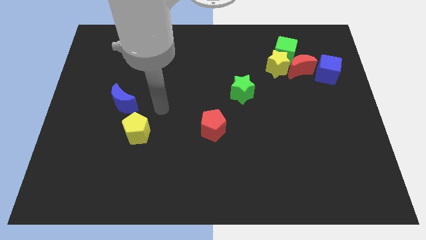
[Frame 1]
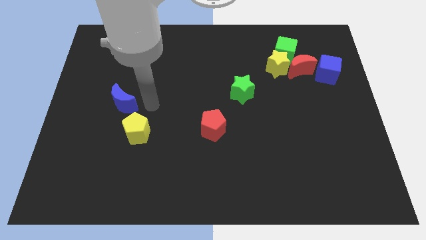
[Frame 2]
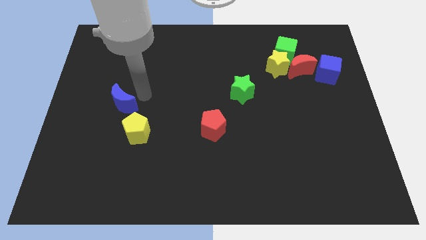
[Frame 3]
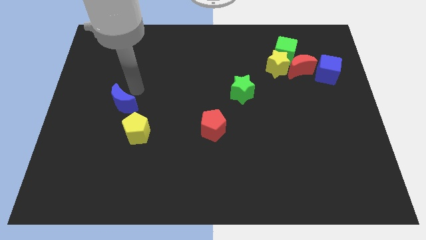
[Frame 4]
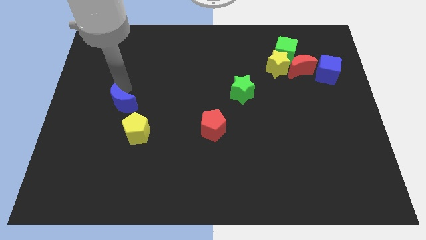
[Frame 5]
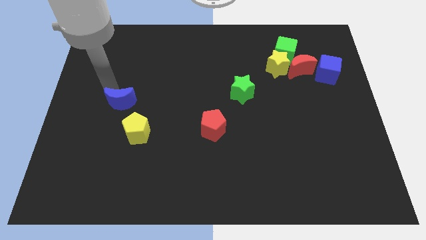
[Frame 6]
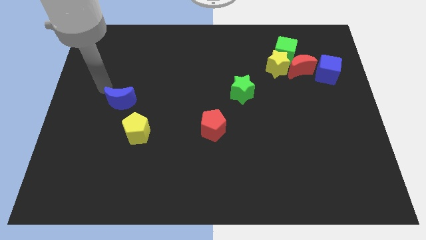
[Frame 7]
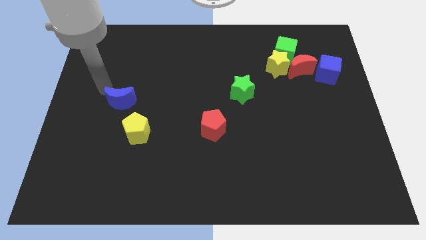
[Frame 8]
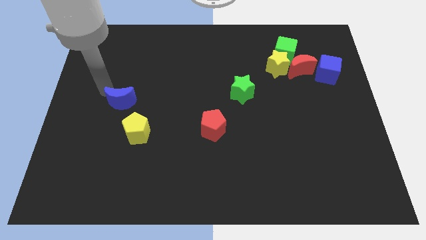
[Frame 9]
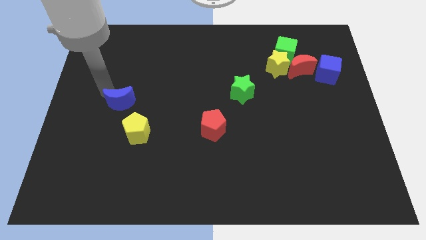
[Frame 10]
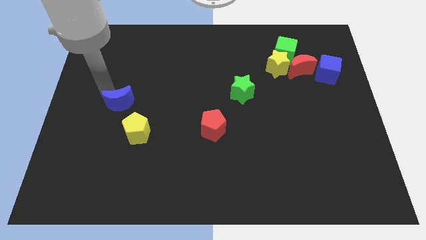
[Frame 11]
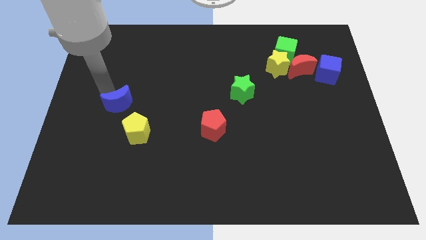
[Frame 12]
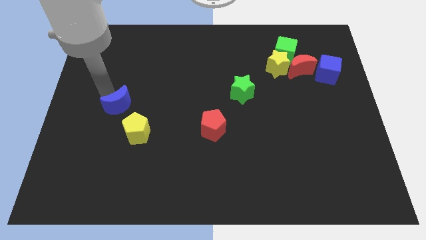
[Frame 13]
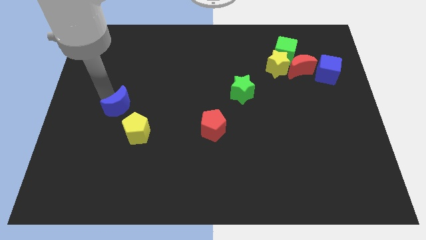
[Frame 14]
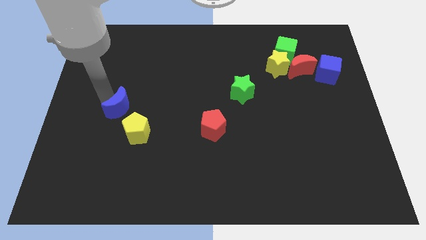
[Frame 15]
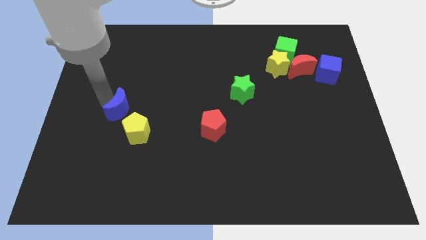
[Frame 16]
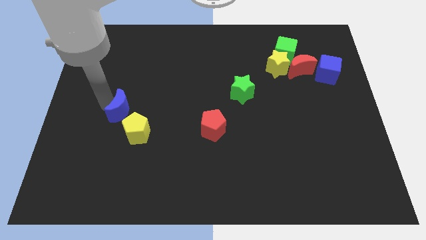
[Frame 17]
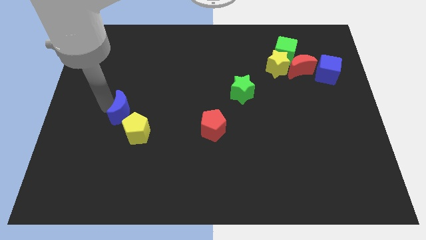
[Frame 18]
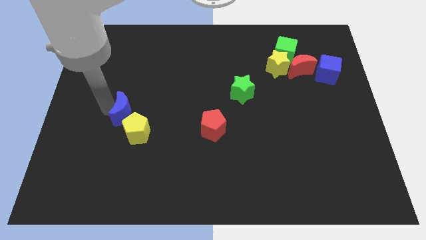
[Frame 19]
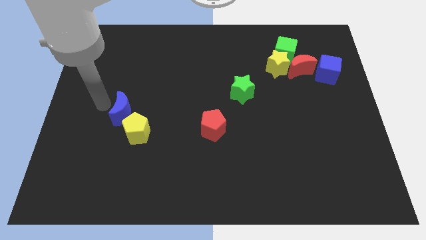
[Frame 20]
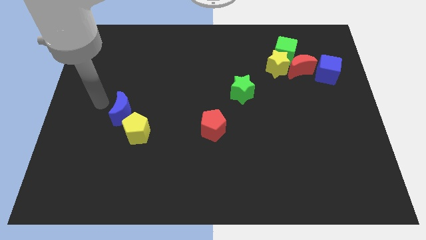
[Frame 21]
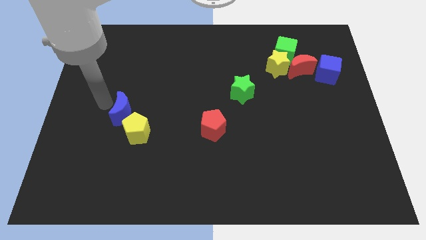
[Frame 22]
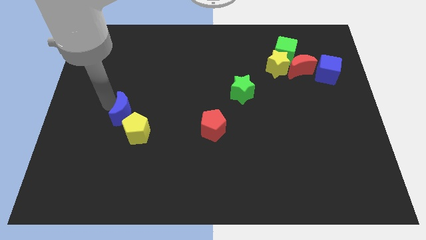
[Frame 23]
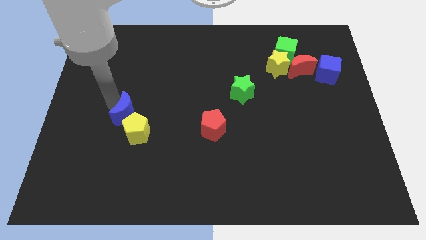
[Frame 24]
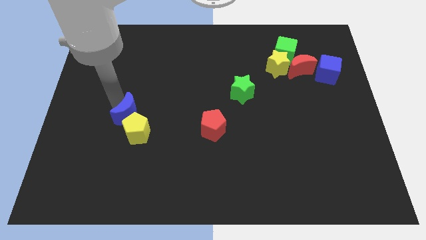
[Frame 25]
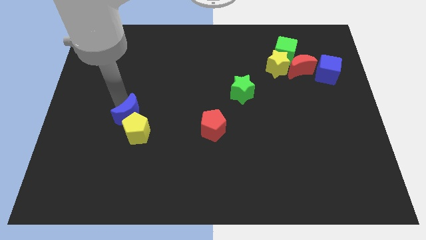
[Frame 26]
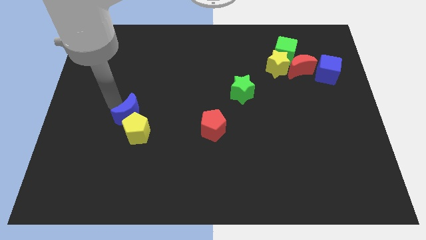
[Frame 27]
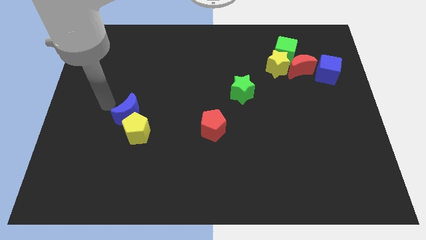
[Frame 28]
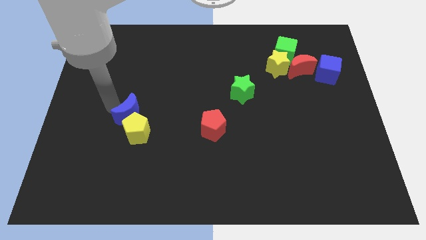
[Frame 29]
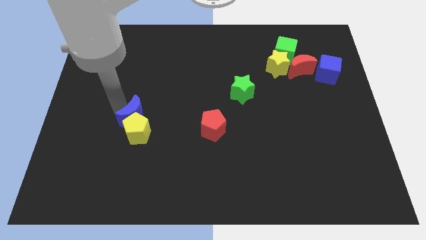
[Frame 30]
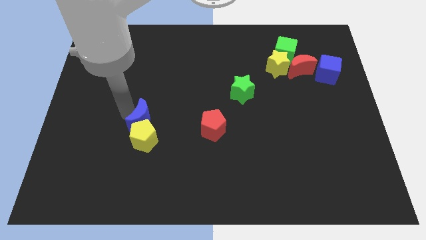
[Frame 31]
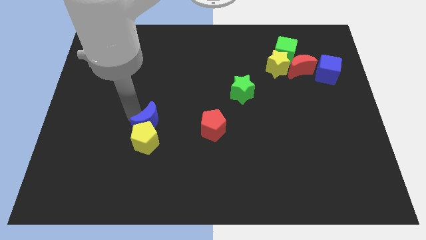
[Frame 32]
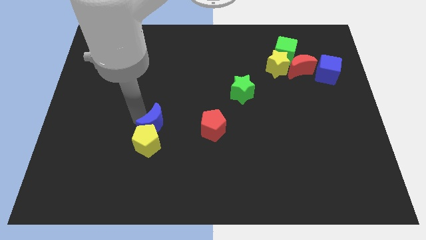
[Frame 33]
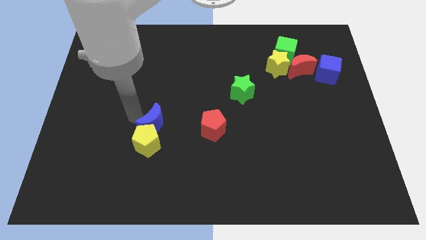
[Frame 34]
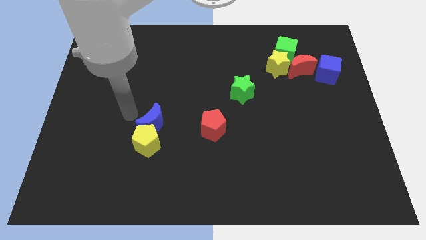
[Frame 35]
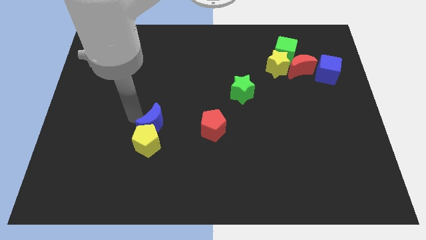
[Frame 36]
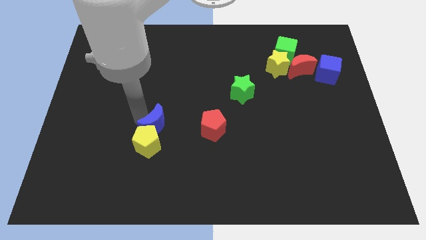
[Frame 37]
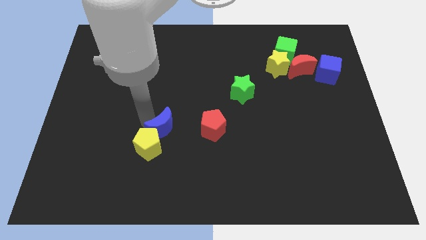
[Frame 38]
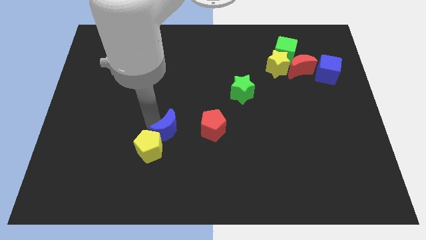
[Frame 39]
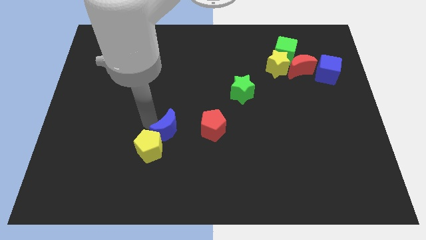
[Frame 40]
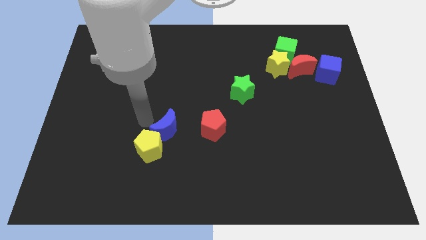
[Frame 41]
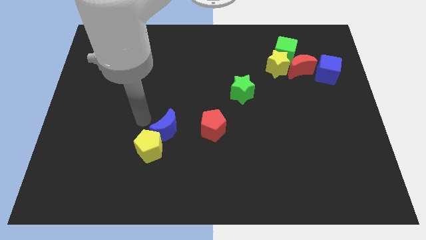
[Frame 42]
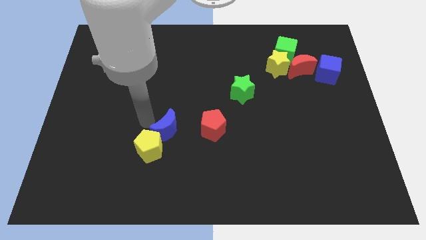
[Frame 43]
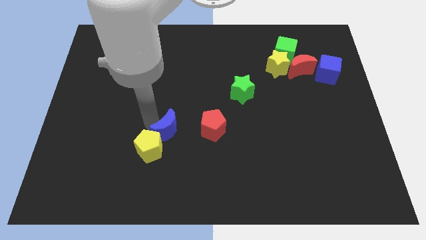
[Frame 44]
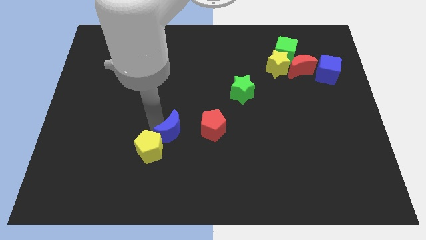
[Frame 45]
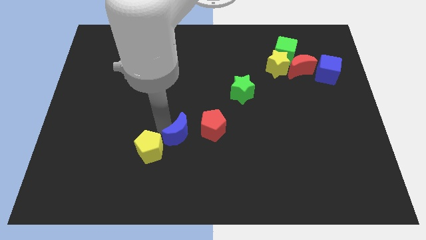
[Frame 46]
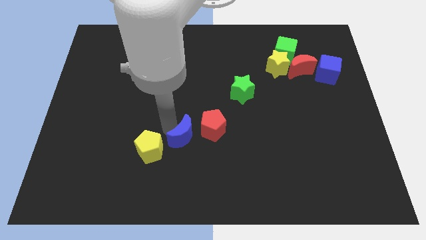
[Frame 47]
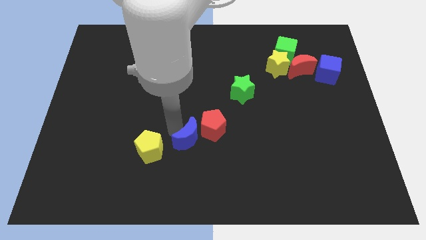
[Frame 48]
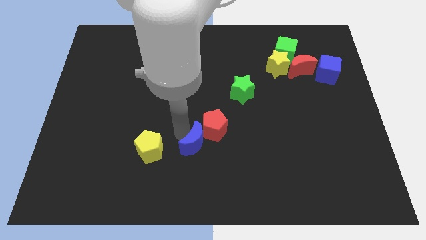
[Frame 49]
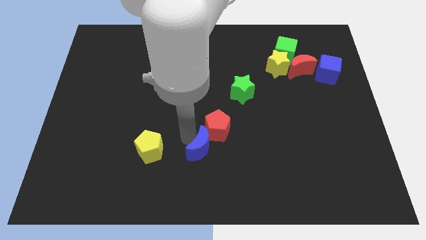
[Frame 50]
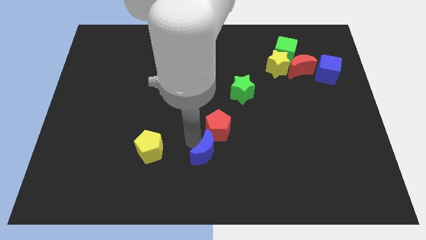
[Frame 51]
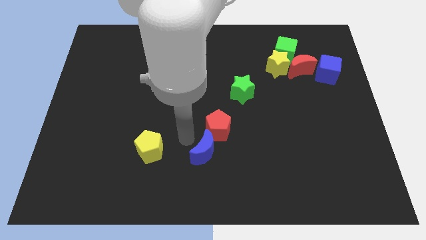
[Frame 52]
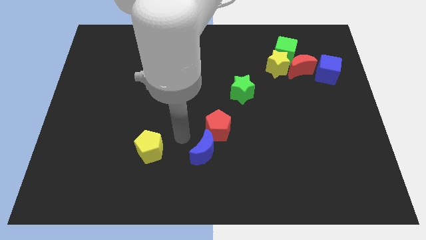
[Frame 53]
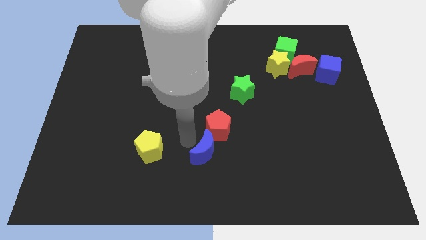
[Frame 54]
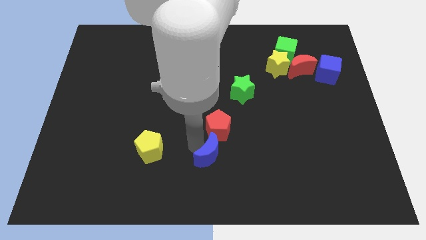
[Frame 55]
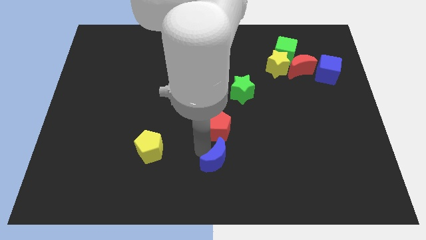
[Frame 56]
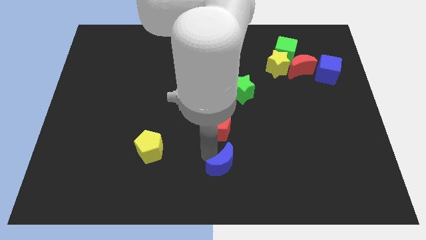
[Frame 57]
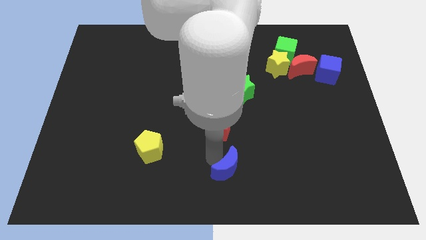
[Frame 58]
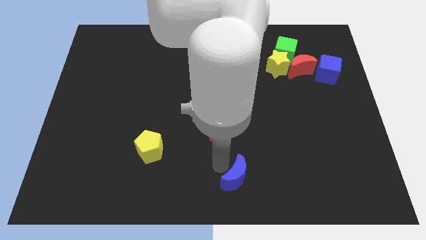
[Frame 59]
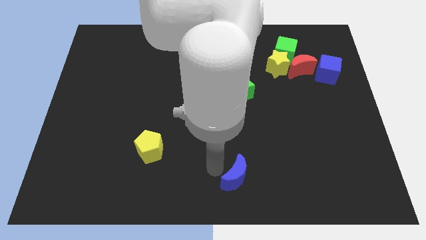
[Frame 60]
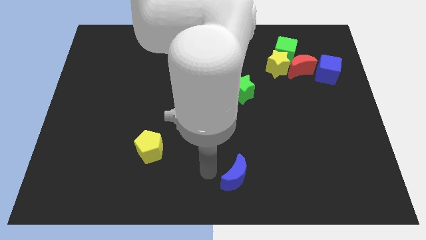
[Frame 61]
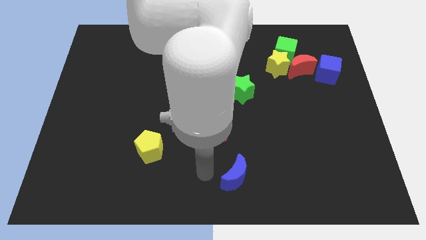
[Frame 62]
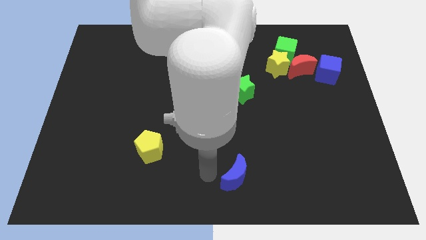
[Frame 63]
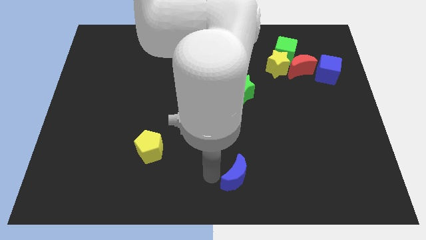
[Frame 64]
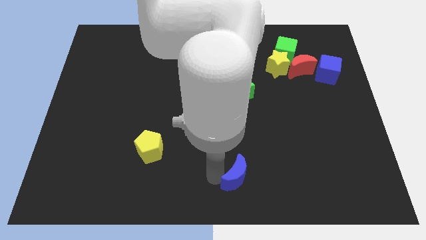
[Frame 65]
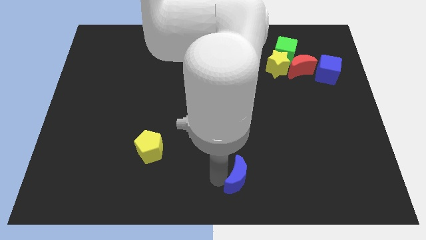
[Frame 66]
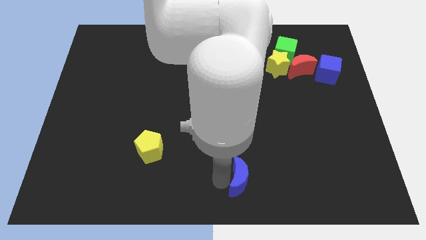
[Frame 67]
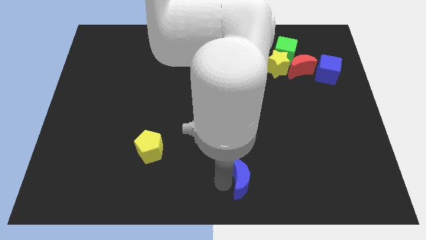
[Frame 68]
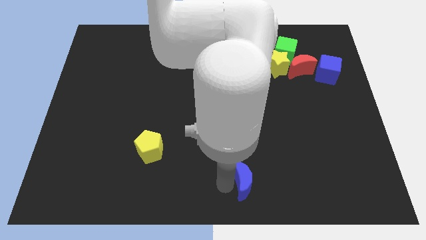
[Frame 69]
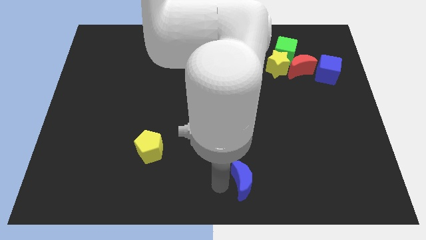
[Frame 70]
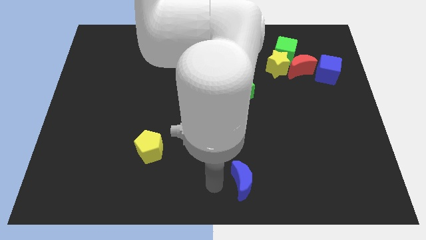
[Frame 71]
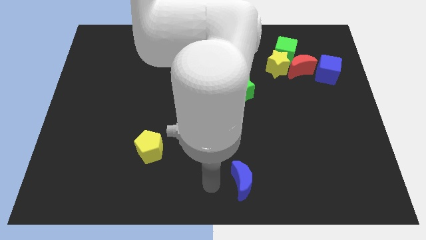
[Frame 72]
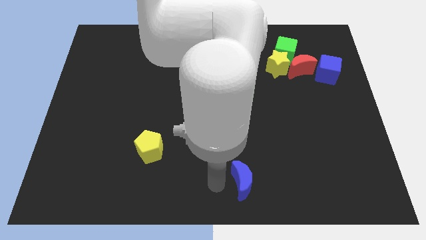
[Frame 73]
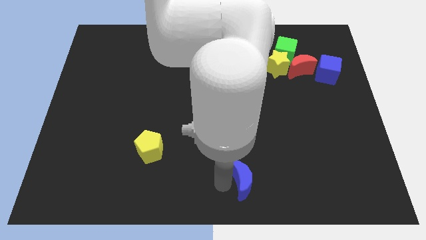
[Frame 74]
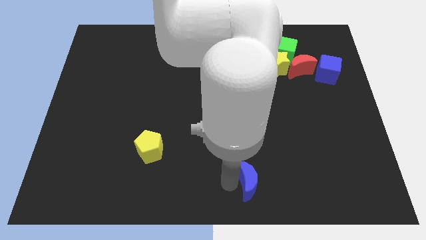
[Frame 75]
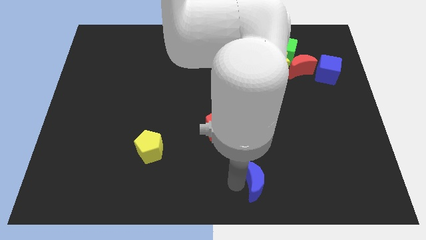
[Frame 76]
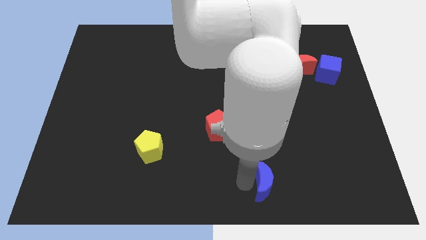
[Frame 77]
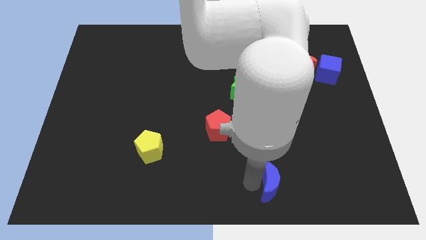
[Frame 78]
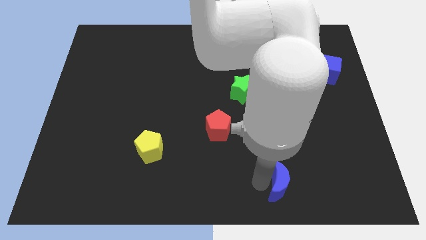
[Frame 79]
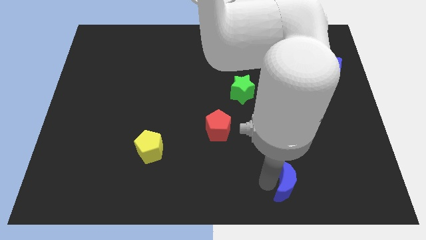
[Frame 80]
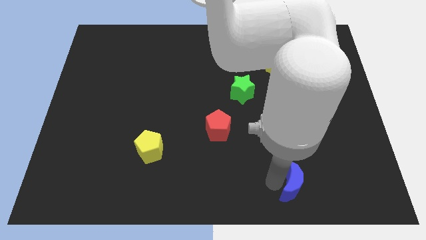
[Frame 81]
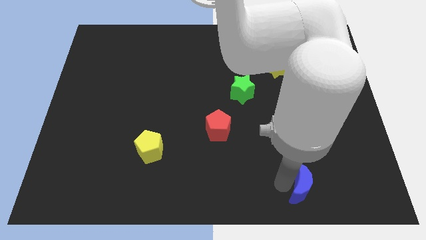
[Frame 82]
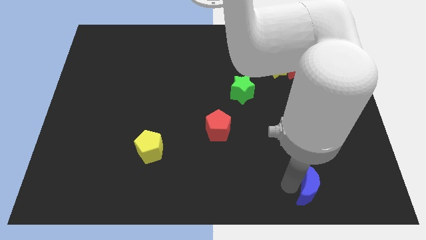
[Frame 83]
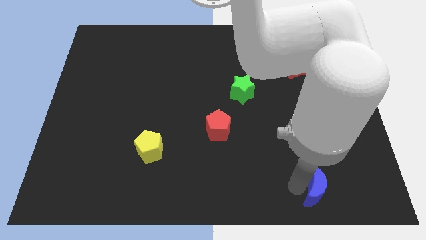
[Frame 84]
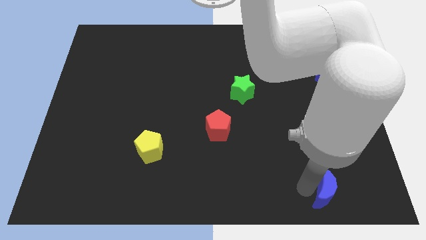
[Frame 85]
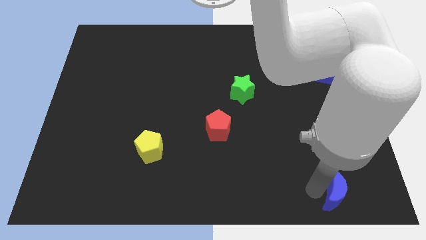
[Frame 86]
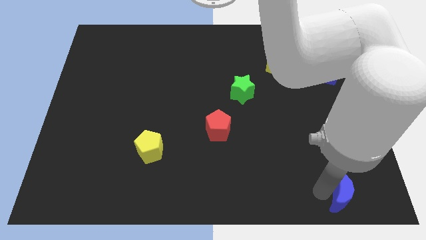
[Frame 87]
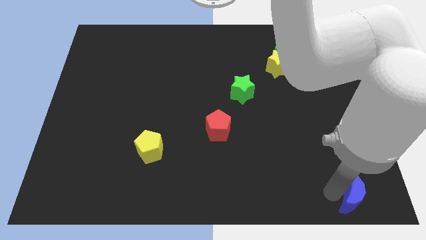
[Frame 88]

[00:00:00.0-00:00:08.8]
push the blue moon to the bottom right of the board
